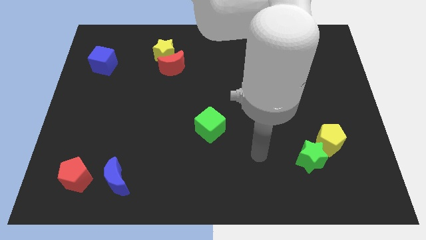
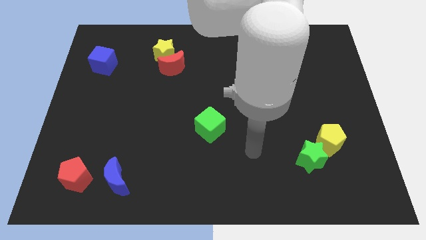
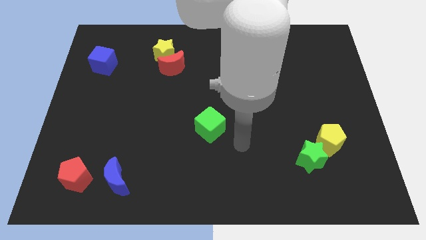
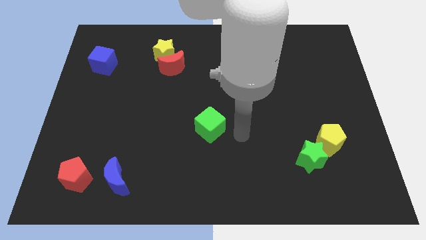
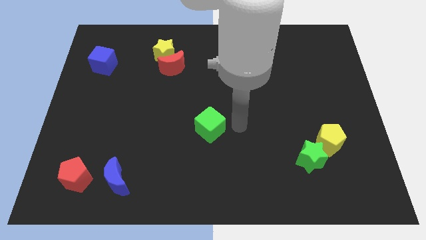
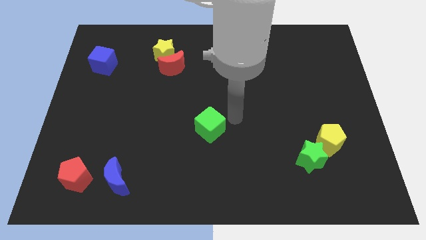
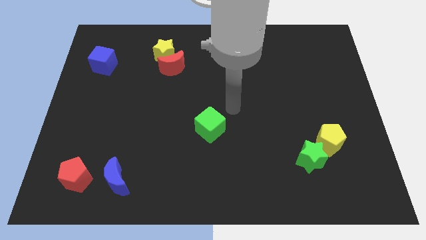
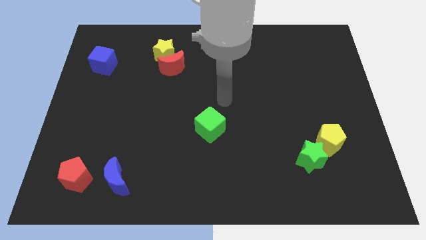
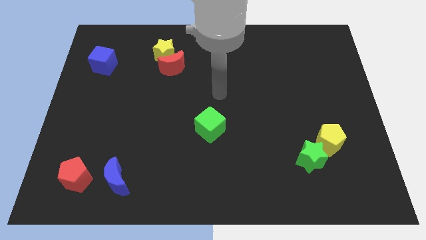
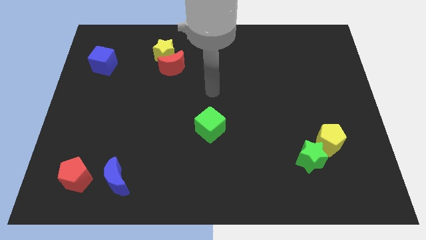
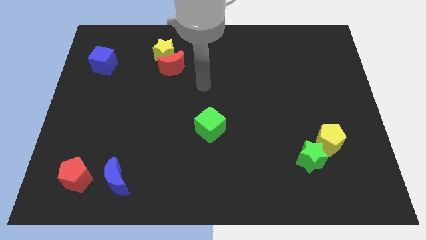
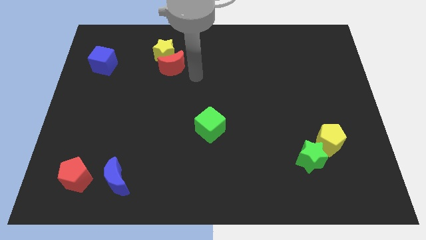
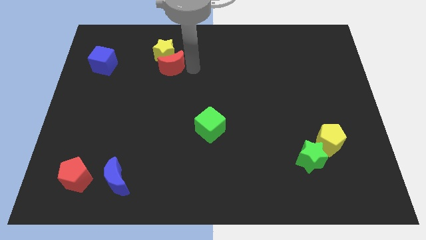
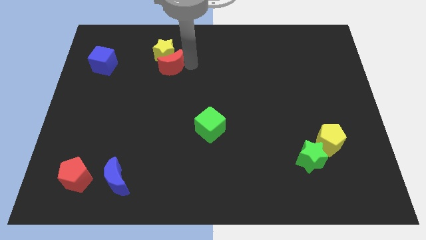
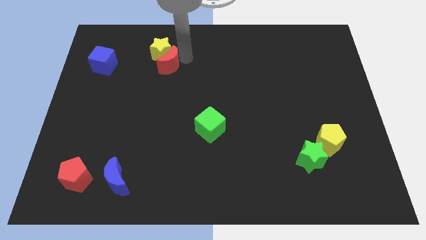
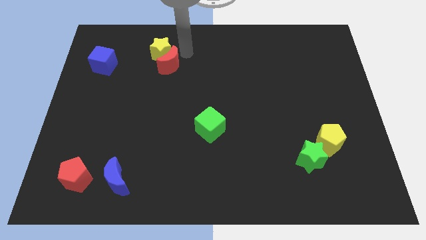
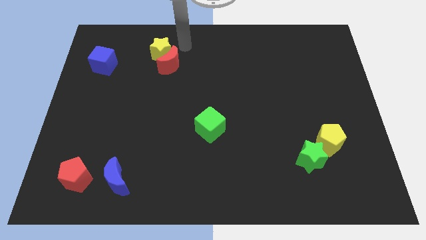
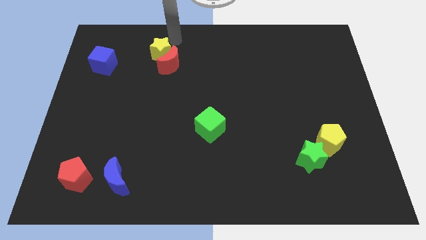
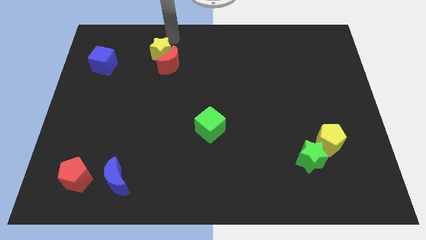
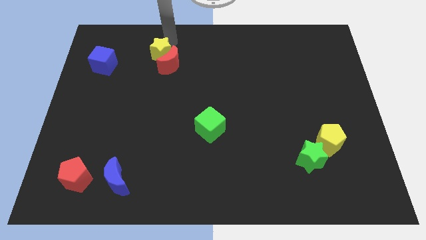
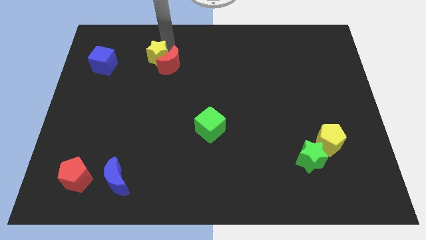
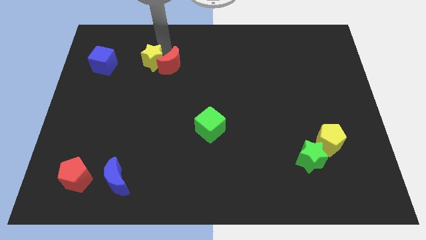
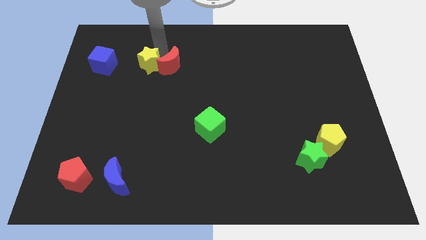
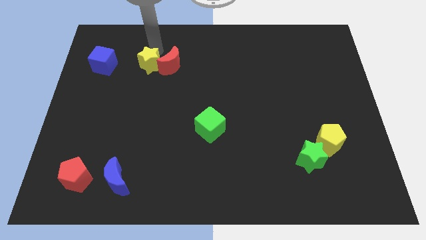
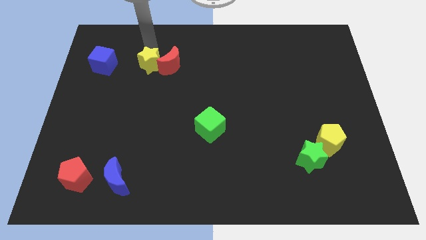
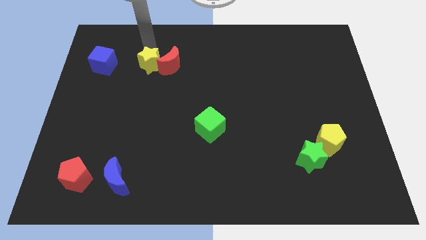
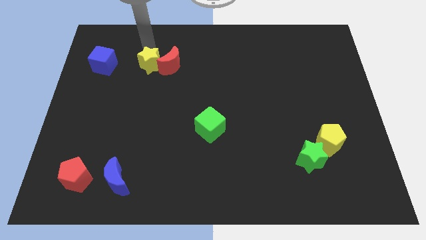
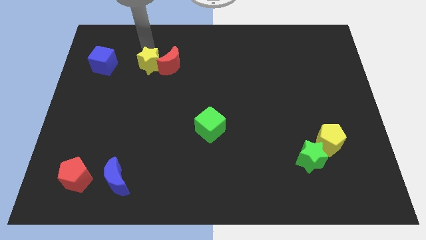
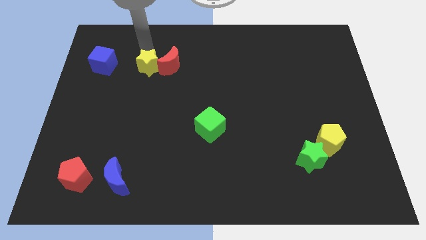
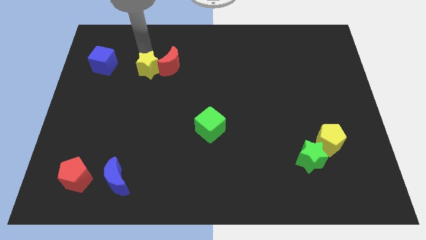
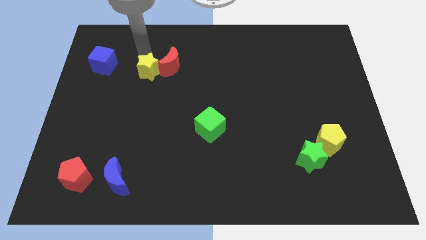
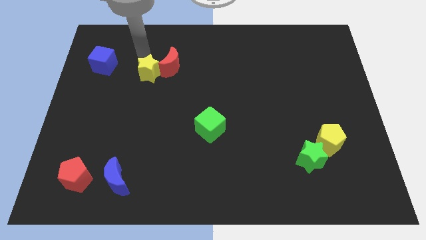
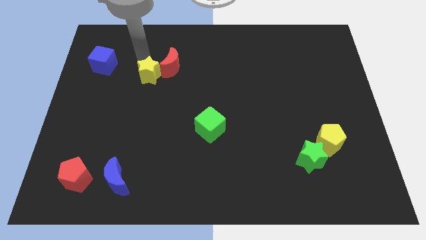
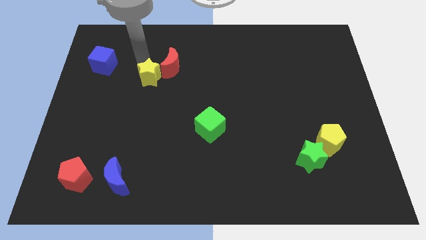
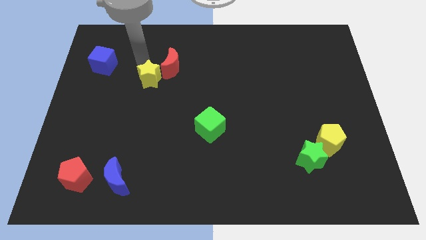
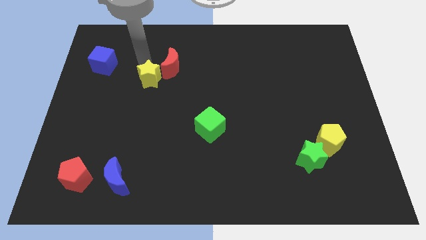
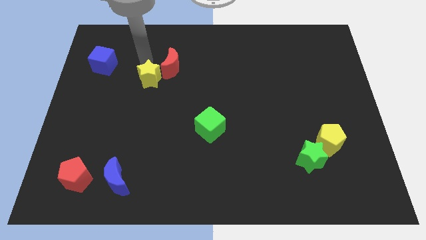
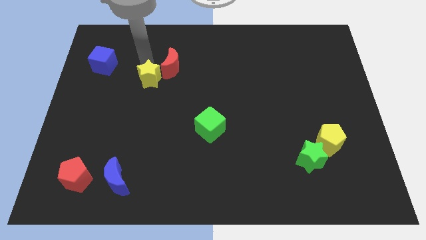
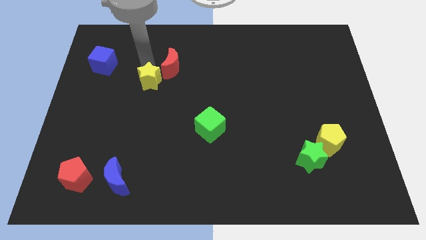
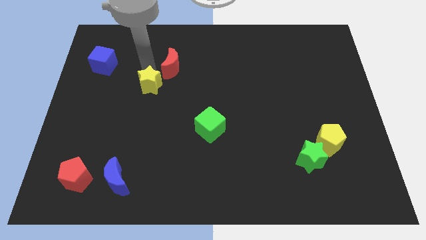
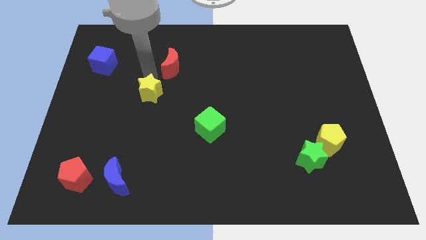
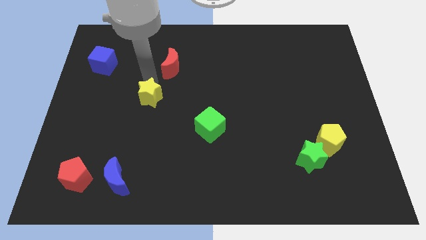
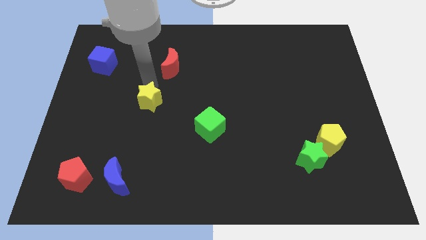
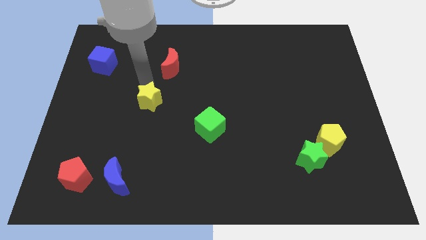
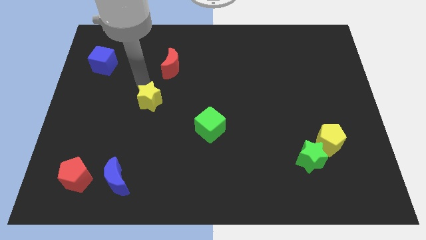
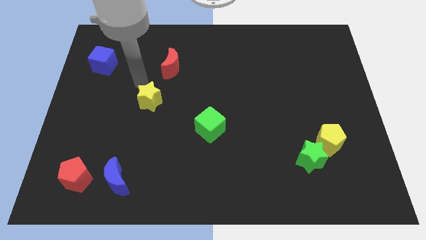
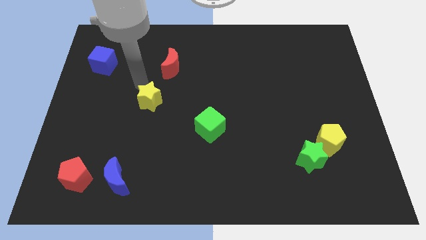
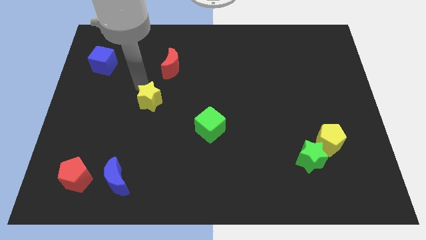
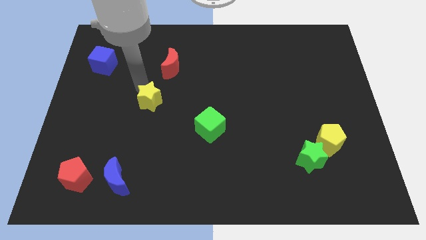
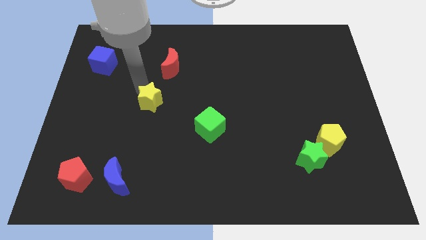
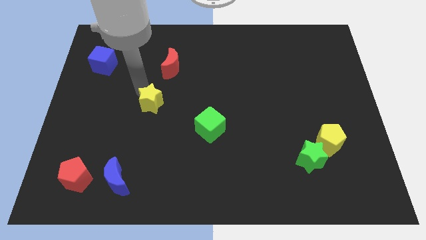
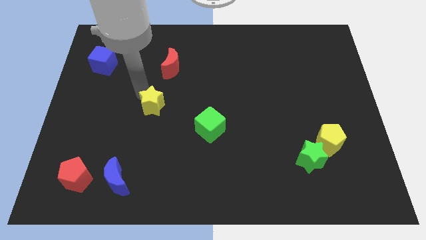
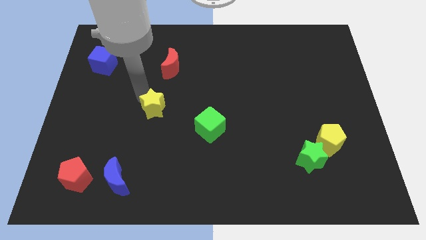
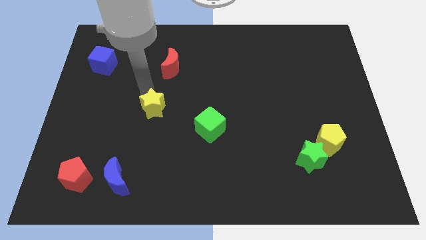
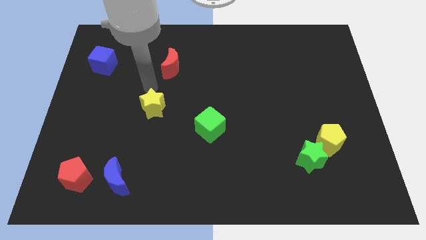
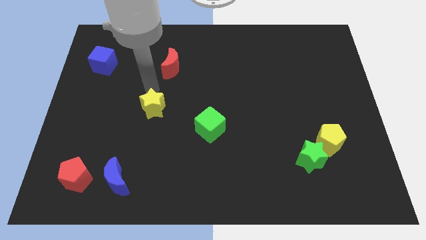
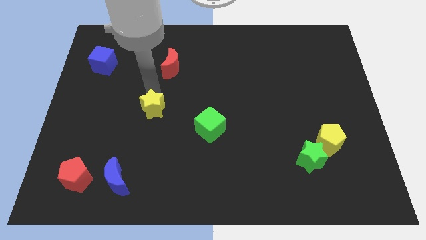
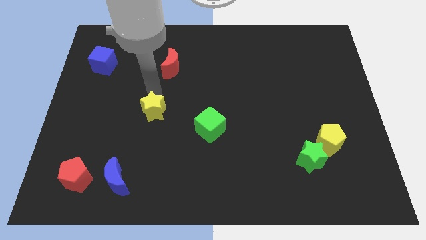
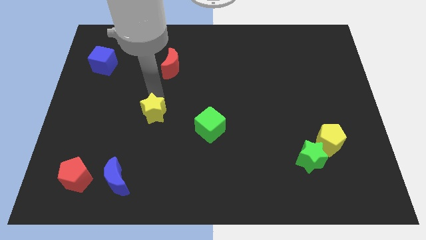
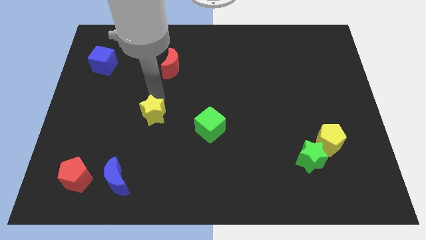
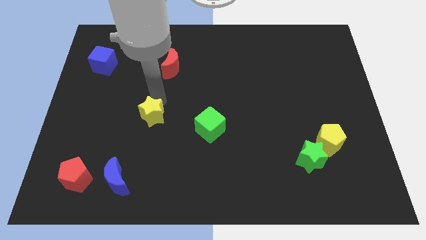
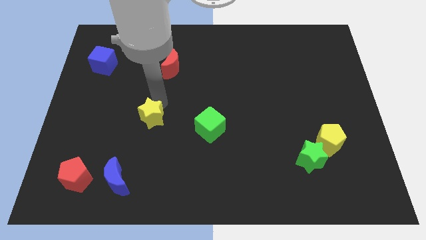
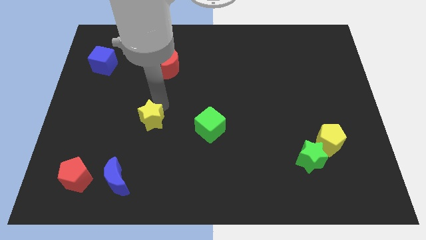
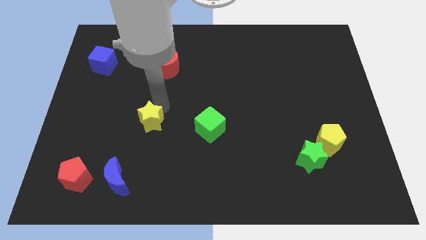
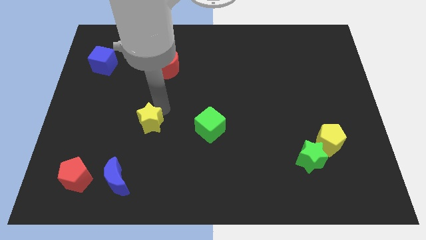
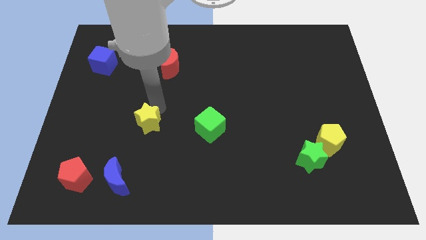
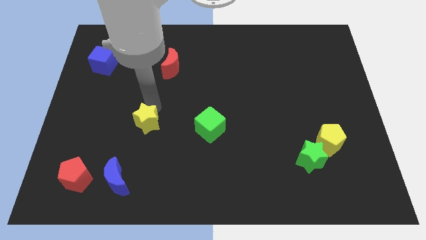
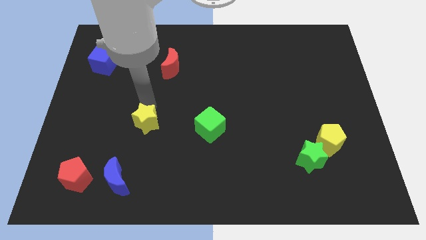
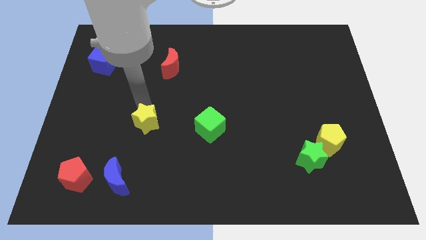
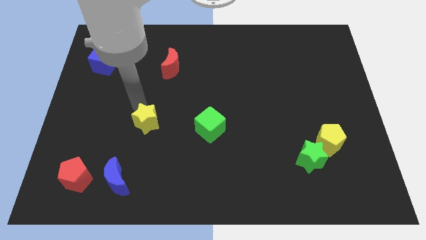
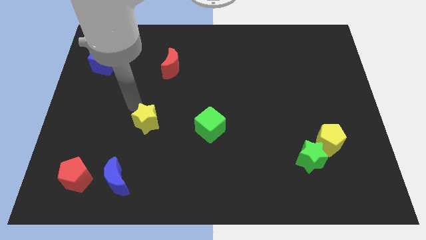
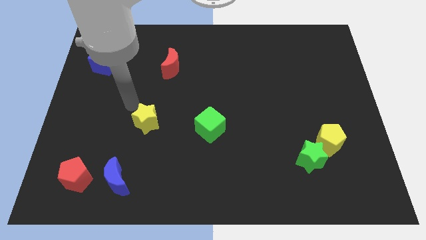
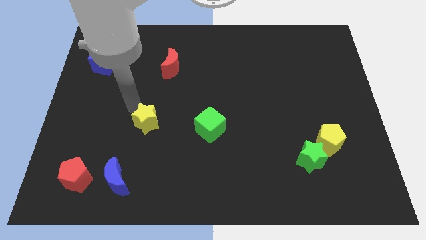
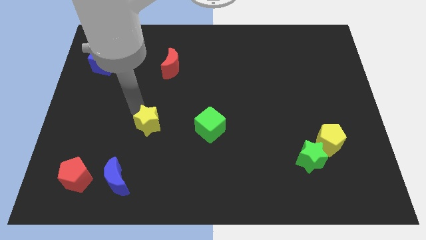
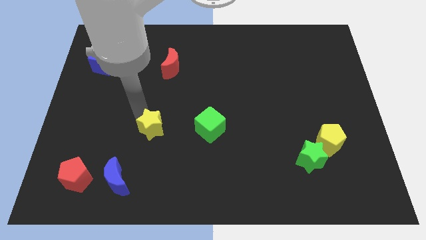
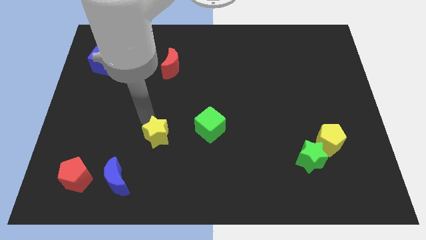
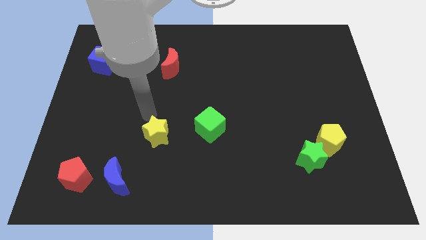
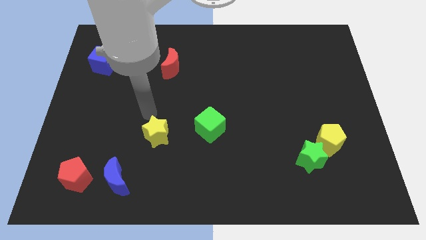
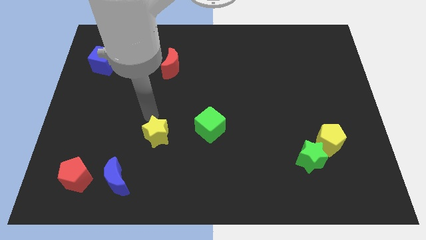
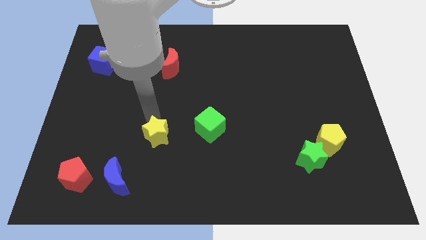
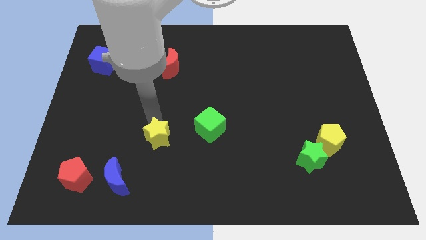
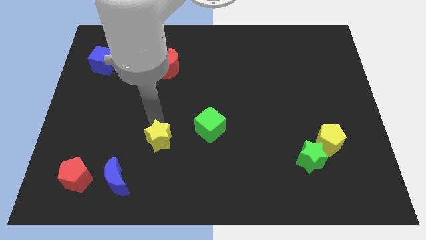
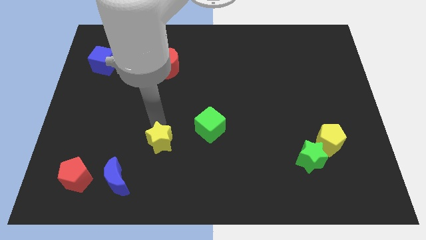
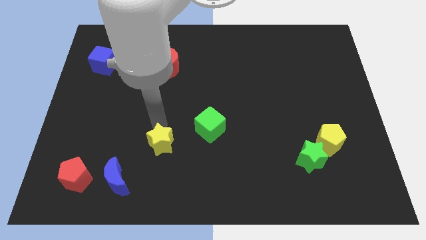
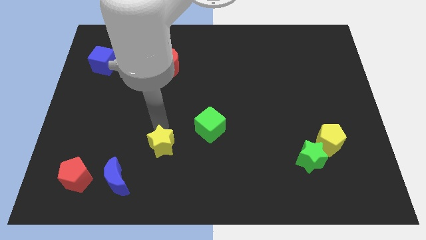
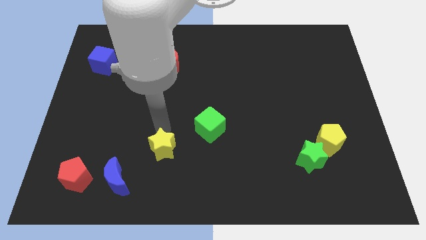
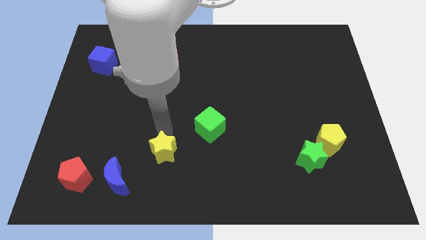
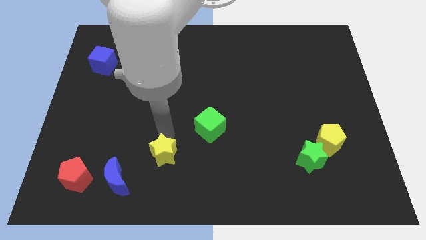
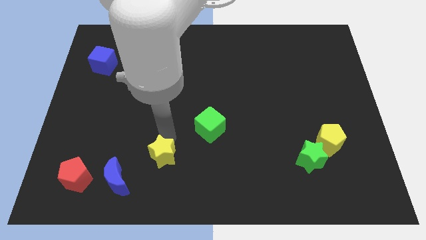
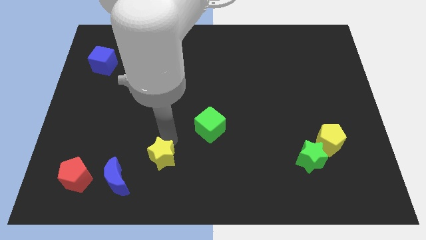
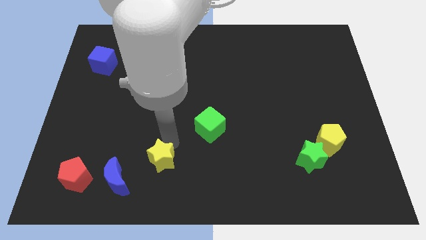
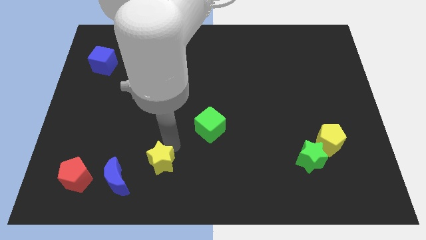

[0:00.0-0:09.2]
slide the yellow star to the right side of the blue moon
